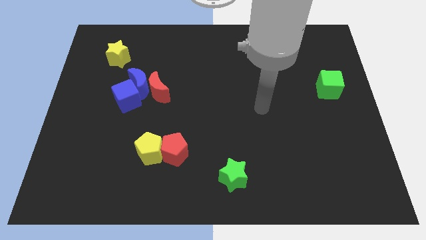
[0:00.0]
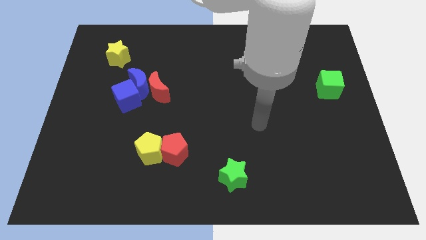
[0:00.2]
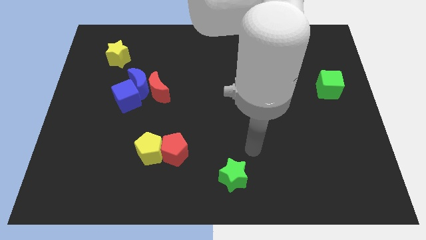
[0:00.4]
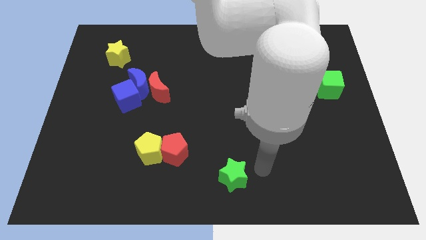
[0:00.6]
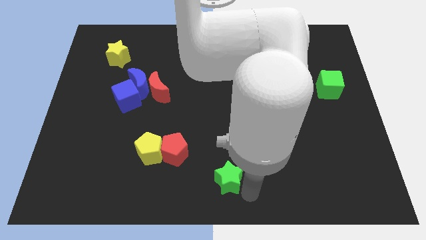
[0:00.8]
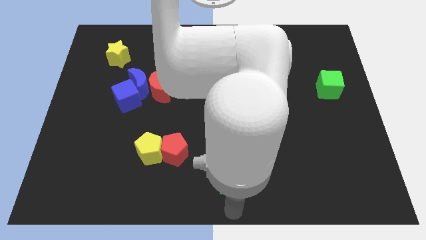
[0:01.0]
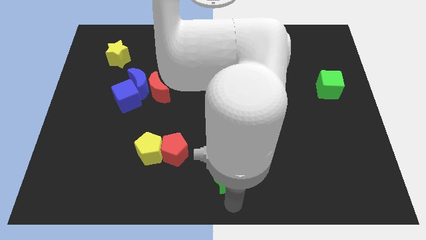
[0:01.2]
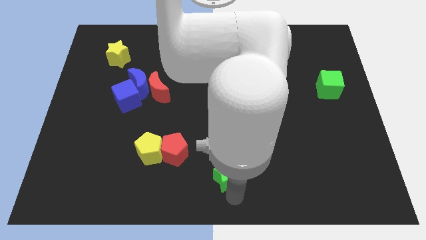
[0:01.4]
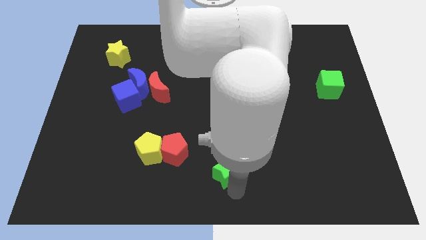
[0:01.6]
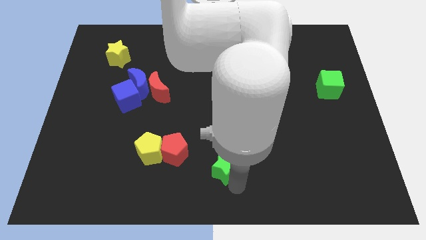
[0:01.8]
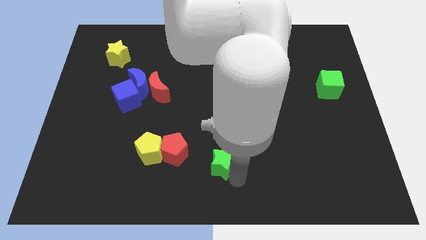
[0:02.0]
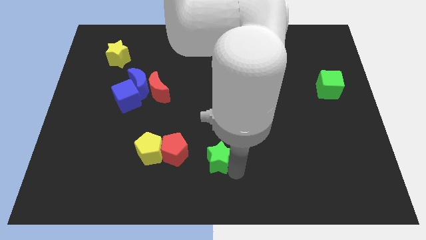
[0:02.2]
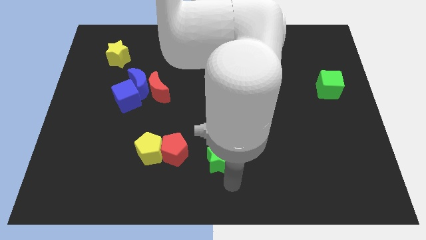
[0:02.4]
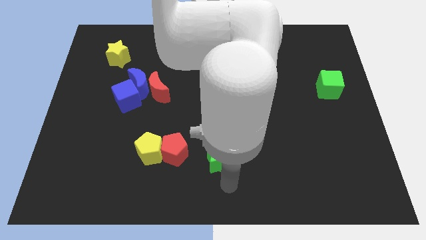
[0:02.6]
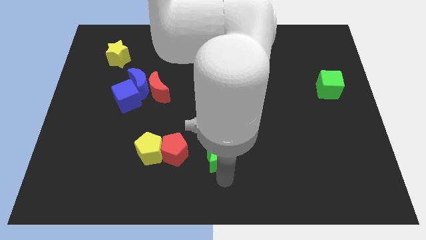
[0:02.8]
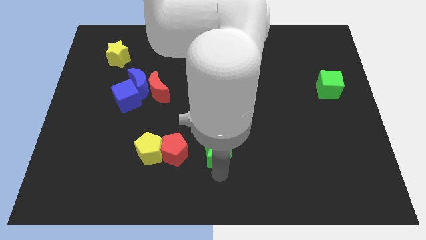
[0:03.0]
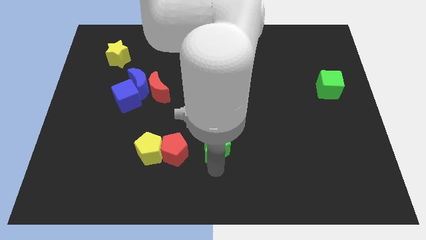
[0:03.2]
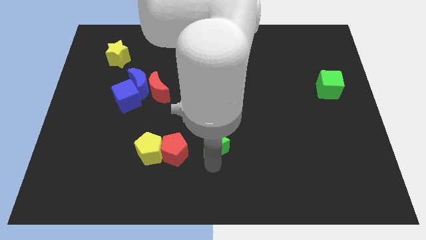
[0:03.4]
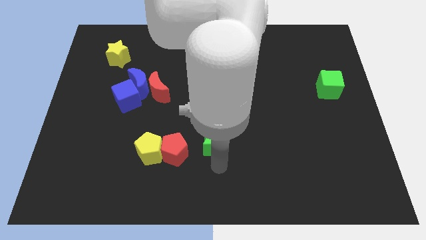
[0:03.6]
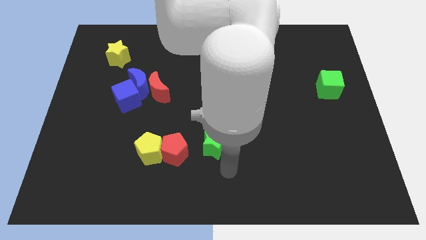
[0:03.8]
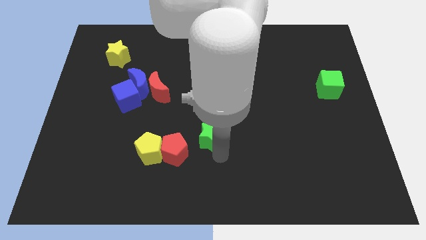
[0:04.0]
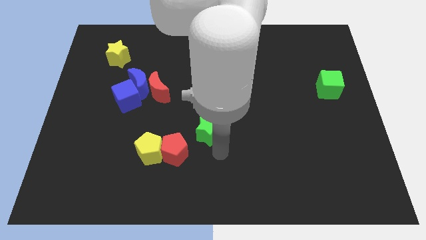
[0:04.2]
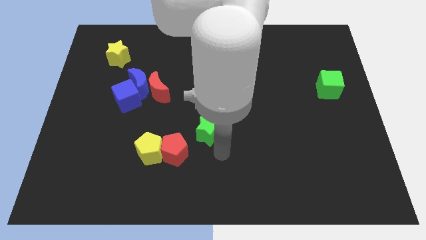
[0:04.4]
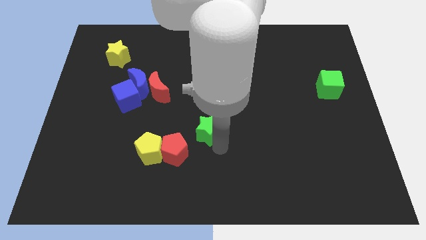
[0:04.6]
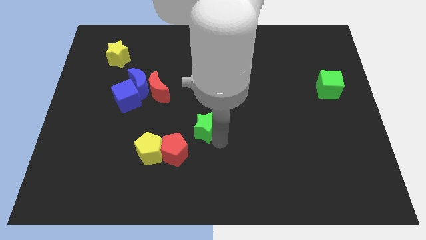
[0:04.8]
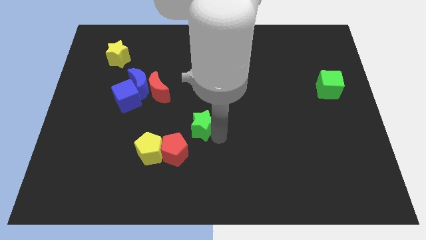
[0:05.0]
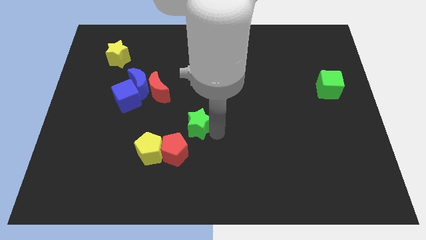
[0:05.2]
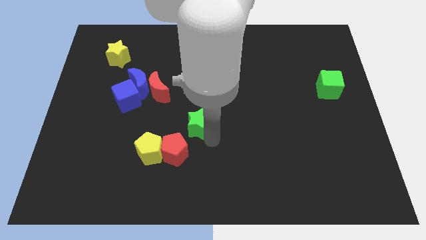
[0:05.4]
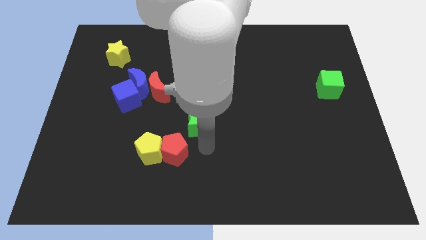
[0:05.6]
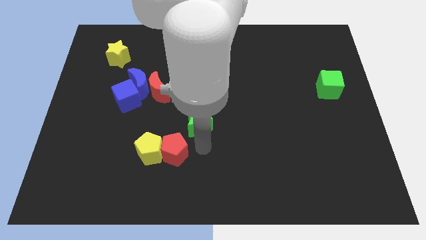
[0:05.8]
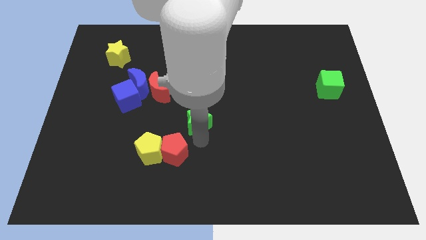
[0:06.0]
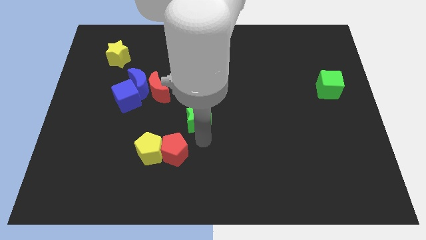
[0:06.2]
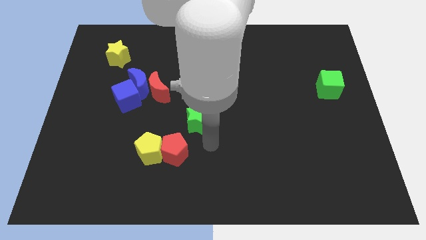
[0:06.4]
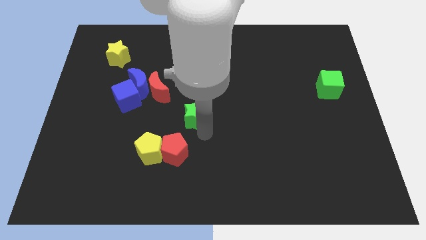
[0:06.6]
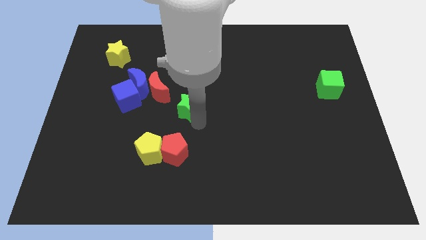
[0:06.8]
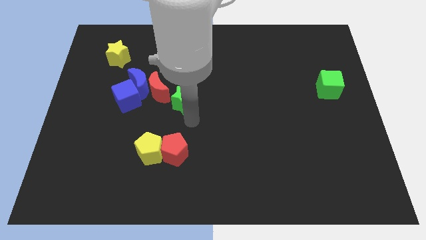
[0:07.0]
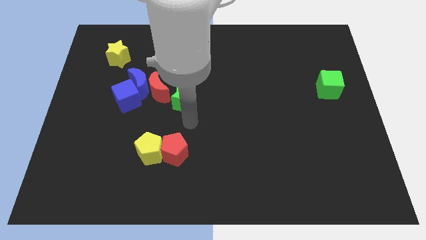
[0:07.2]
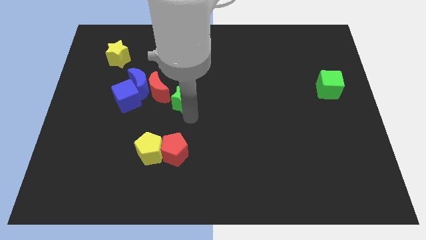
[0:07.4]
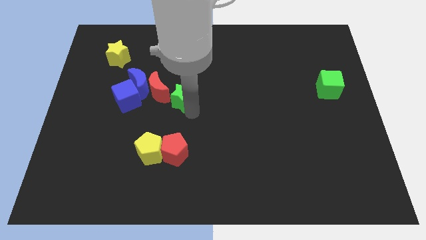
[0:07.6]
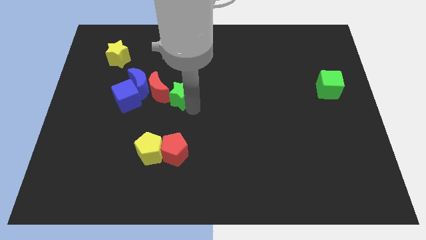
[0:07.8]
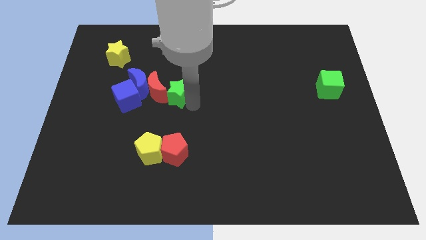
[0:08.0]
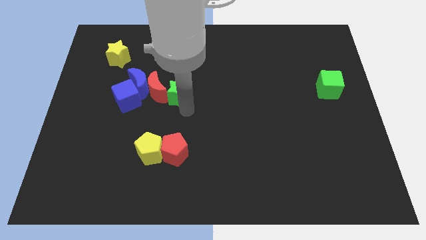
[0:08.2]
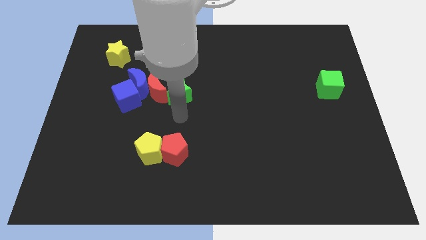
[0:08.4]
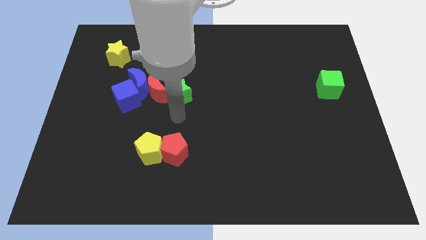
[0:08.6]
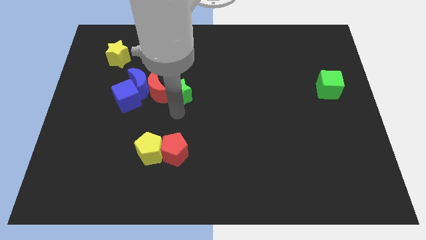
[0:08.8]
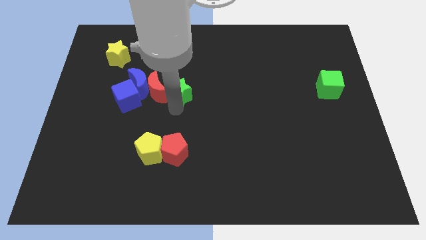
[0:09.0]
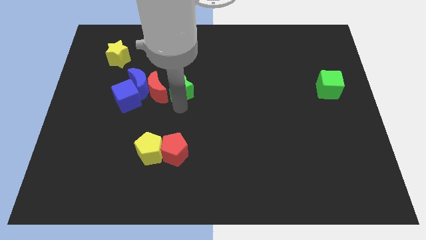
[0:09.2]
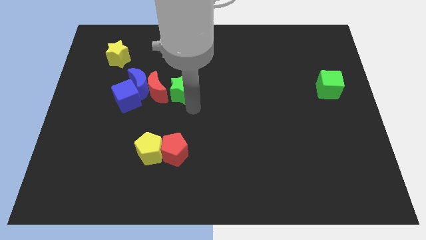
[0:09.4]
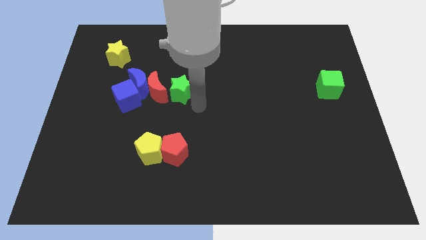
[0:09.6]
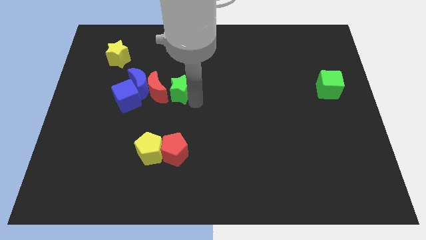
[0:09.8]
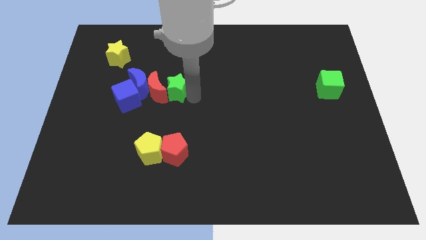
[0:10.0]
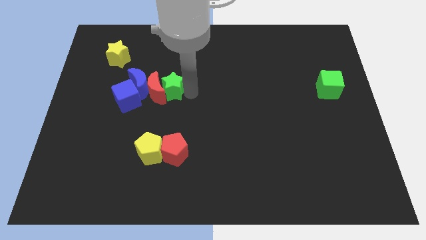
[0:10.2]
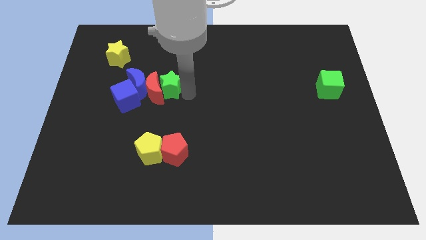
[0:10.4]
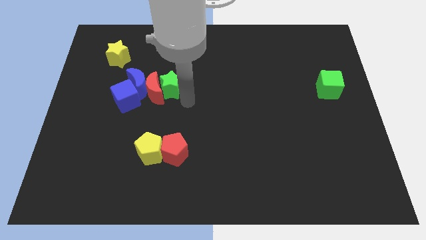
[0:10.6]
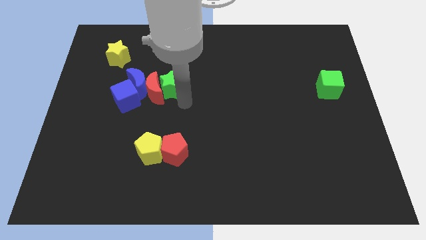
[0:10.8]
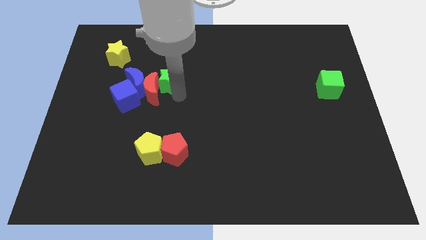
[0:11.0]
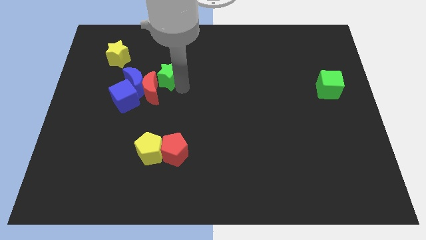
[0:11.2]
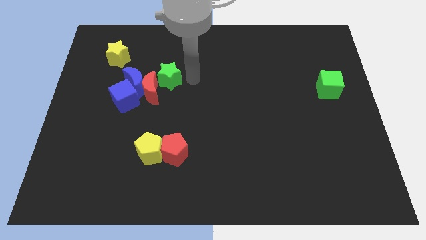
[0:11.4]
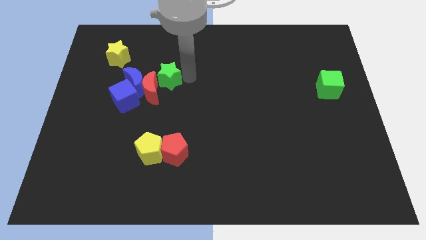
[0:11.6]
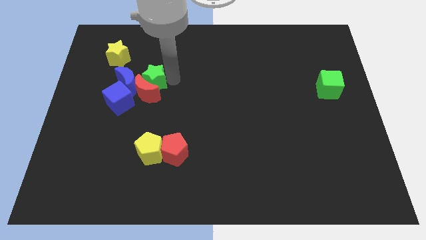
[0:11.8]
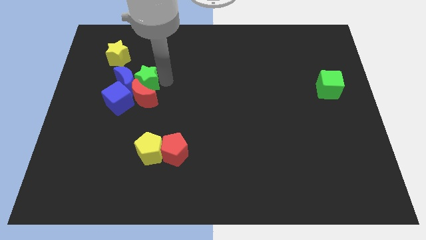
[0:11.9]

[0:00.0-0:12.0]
slide the green star close to the blue moon

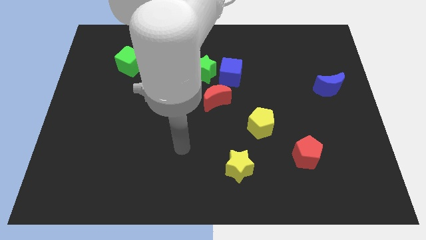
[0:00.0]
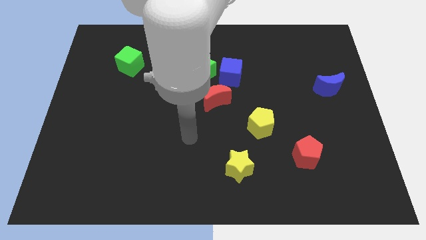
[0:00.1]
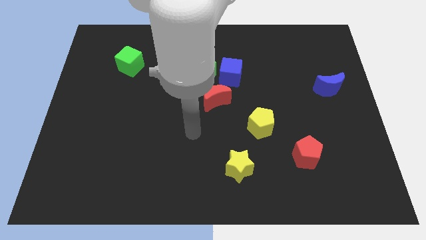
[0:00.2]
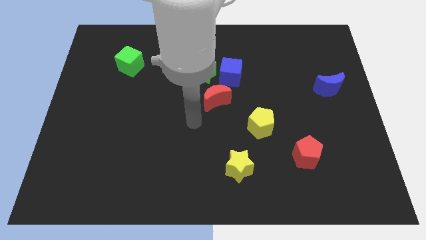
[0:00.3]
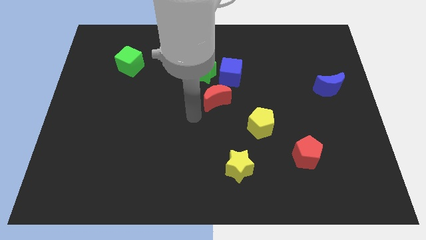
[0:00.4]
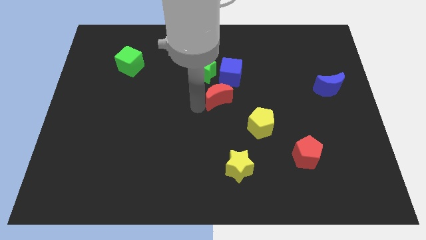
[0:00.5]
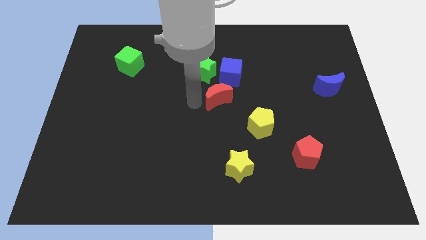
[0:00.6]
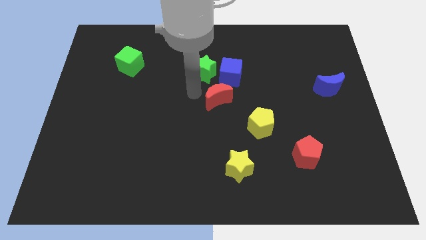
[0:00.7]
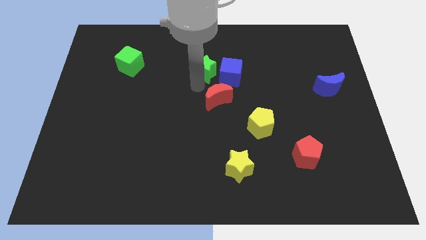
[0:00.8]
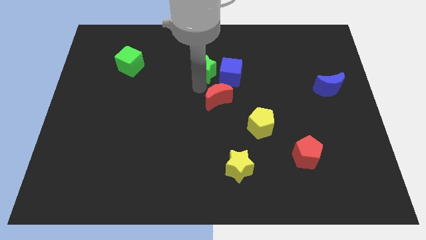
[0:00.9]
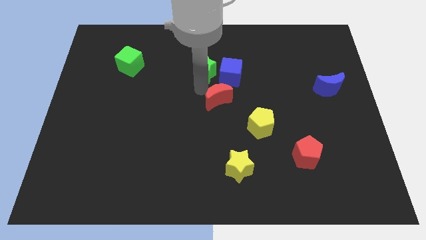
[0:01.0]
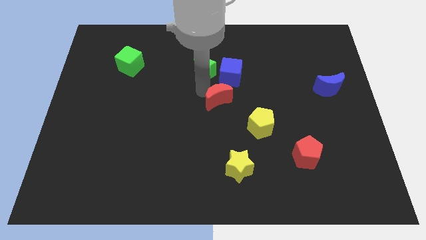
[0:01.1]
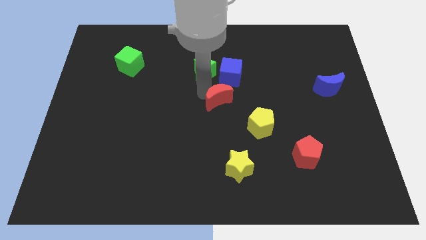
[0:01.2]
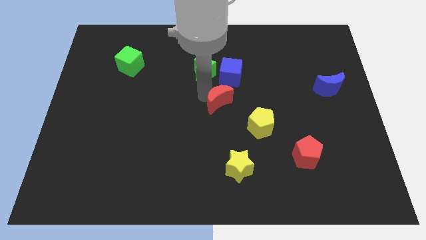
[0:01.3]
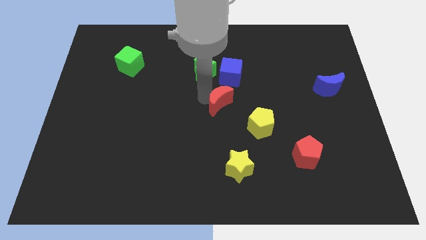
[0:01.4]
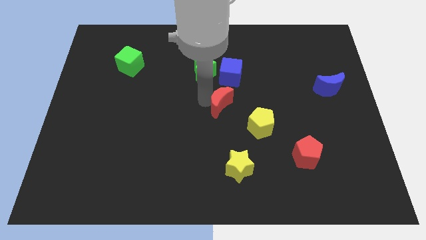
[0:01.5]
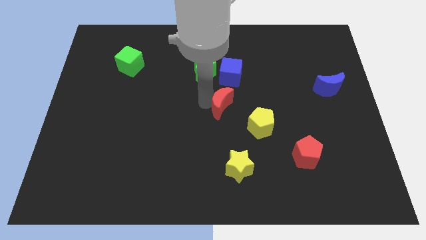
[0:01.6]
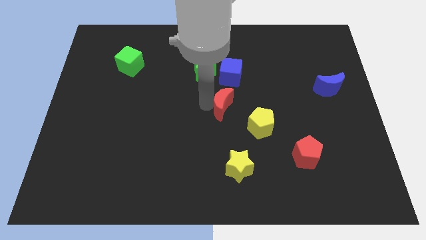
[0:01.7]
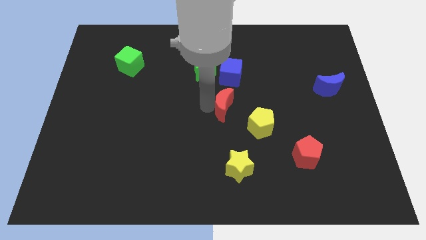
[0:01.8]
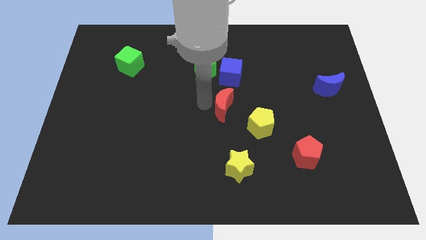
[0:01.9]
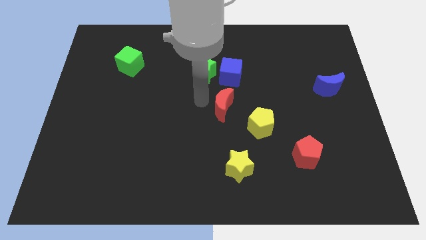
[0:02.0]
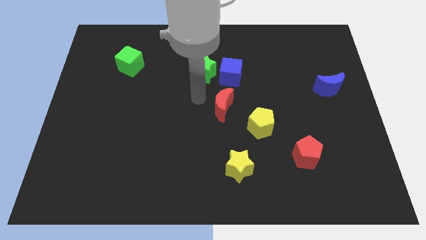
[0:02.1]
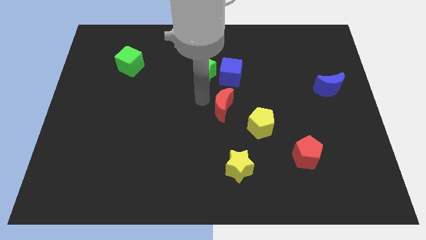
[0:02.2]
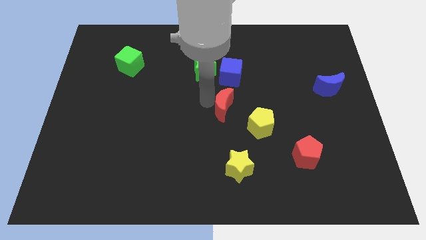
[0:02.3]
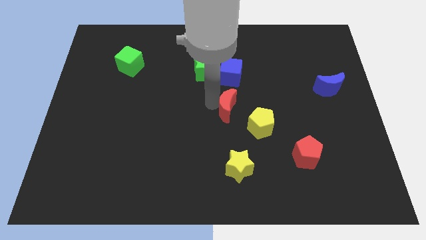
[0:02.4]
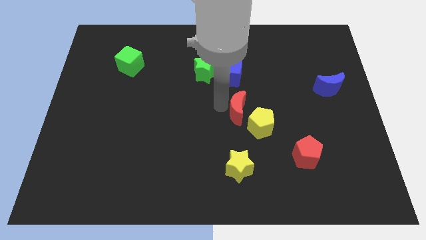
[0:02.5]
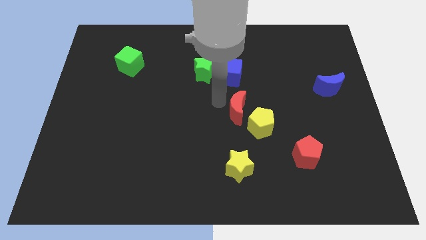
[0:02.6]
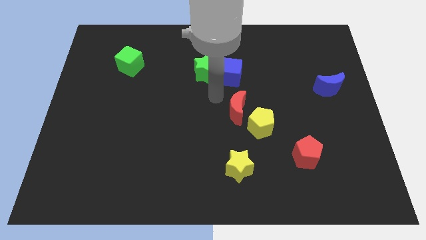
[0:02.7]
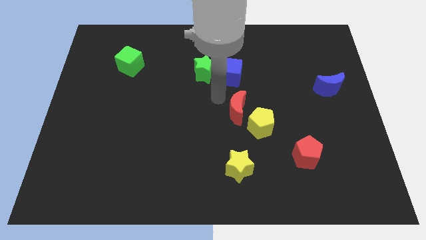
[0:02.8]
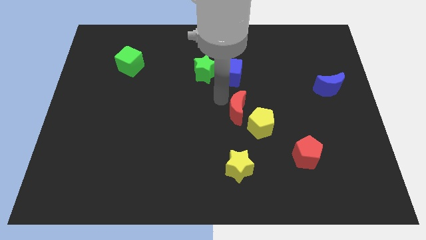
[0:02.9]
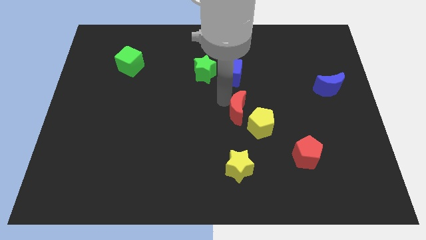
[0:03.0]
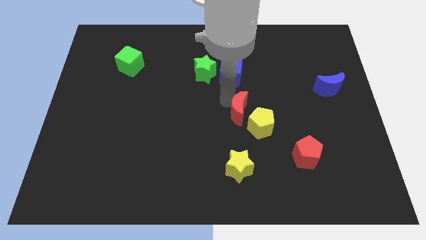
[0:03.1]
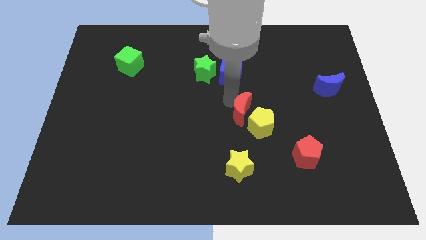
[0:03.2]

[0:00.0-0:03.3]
put the red moon to the yellow pentagon
